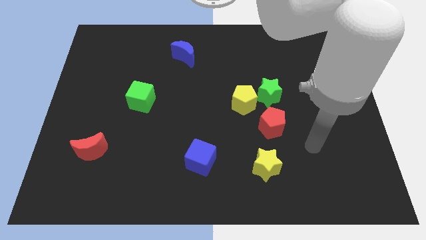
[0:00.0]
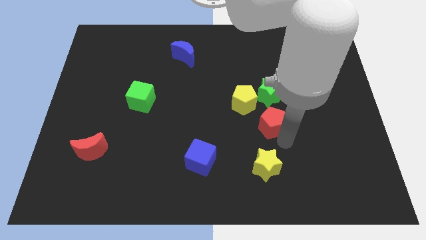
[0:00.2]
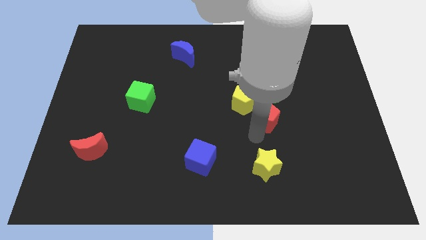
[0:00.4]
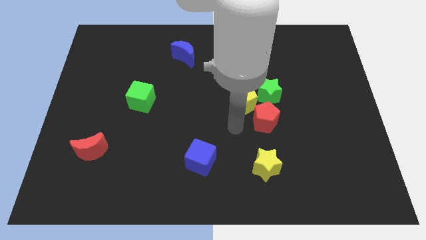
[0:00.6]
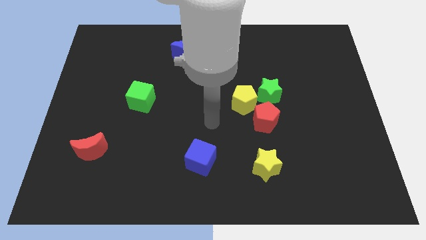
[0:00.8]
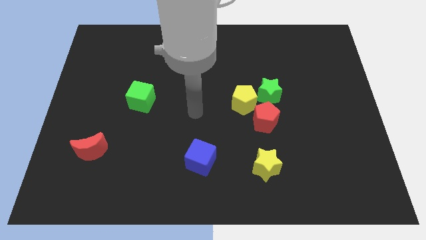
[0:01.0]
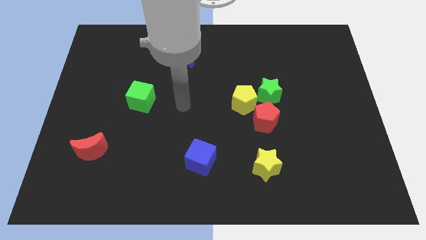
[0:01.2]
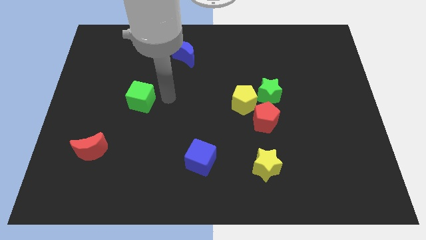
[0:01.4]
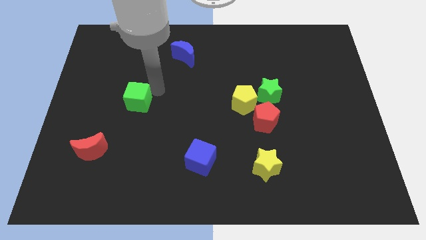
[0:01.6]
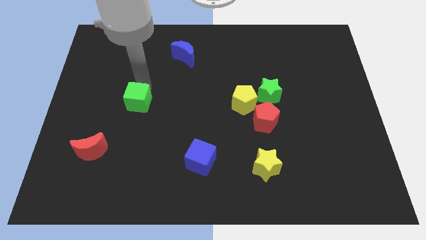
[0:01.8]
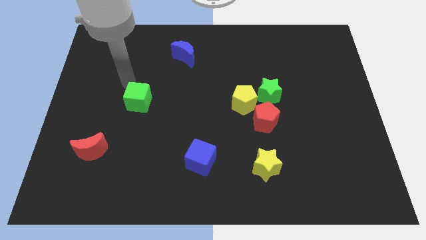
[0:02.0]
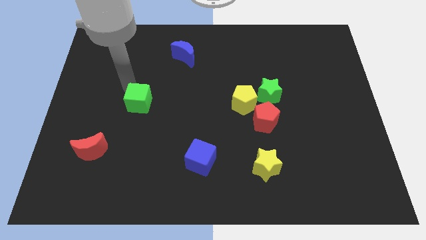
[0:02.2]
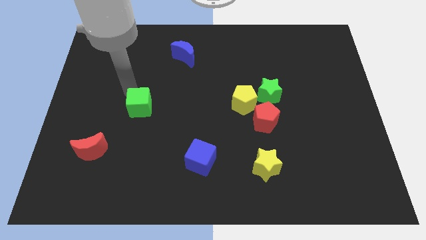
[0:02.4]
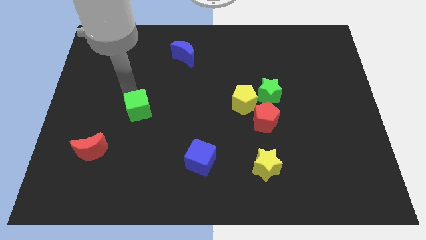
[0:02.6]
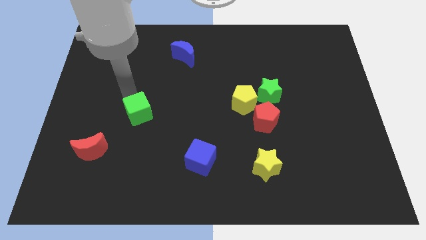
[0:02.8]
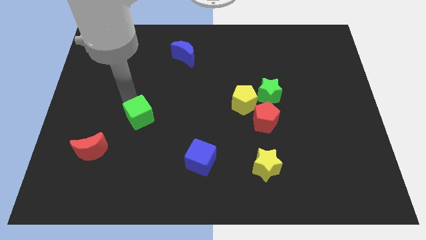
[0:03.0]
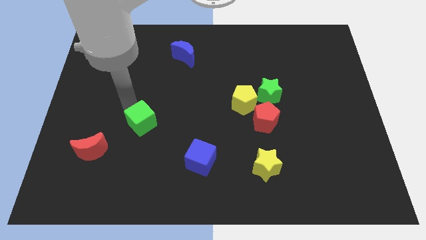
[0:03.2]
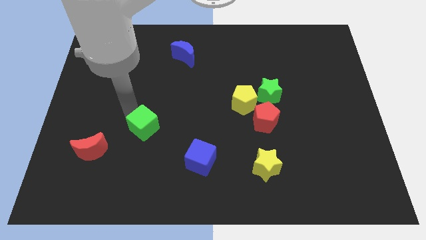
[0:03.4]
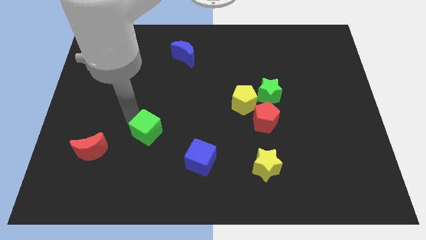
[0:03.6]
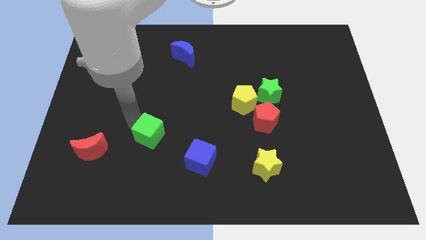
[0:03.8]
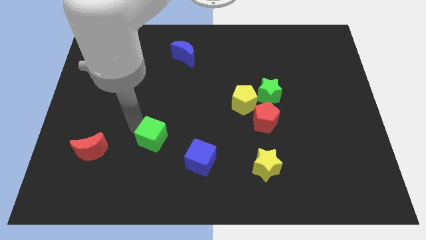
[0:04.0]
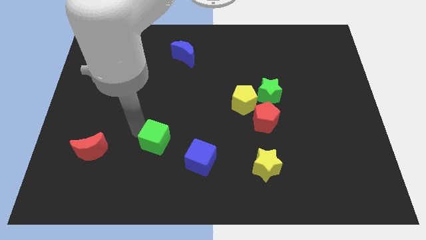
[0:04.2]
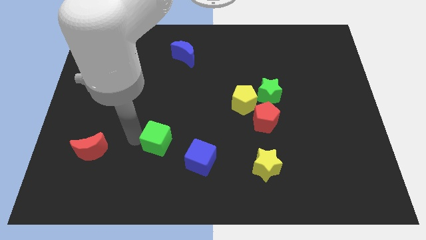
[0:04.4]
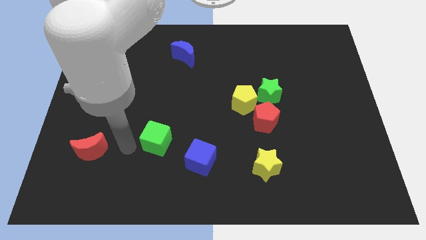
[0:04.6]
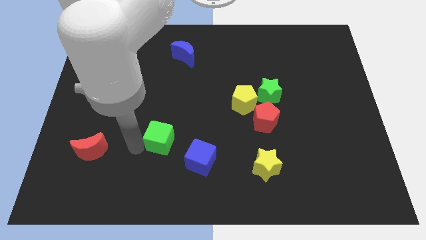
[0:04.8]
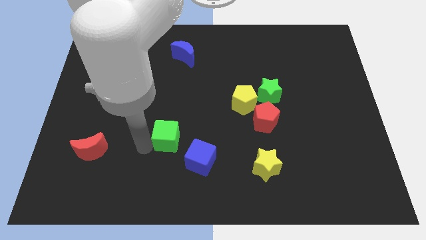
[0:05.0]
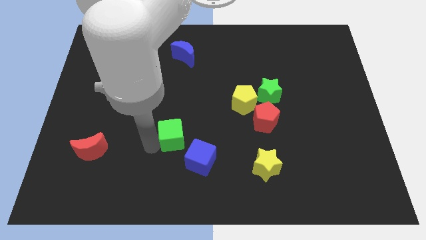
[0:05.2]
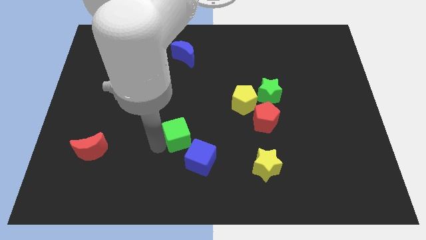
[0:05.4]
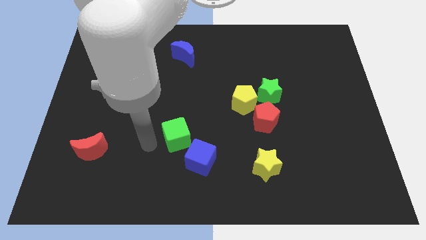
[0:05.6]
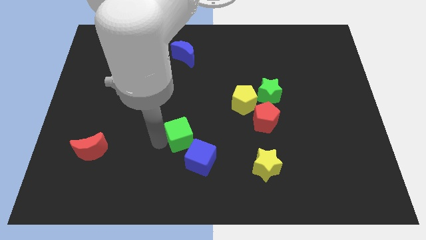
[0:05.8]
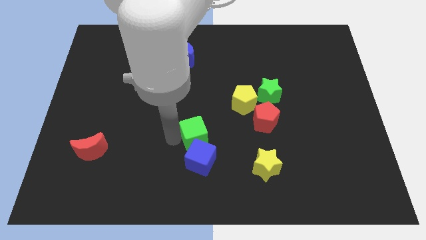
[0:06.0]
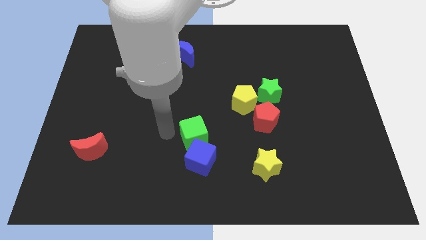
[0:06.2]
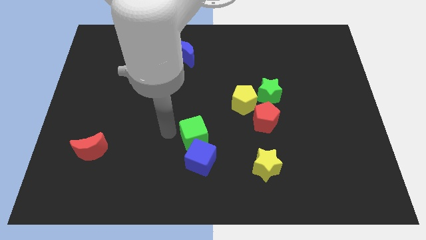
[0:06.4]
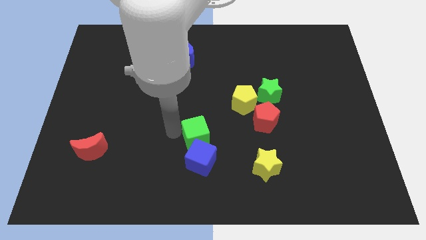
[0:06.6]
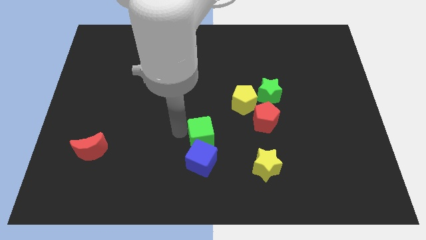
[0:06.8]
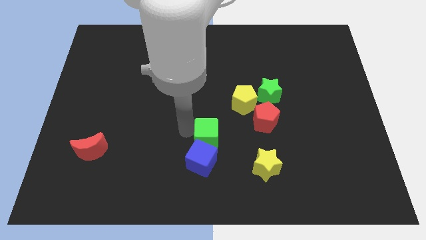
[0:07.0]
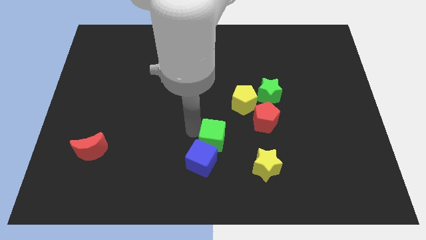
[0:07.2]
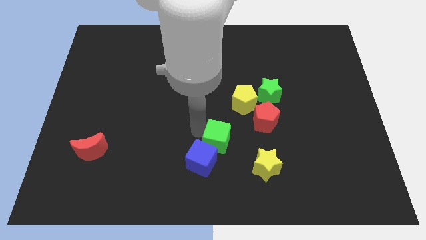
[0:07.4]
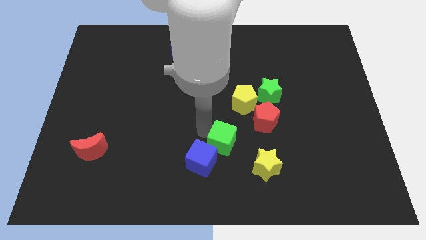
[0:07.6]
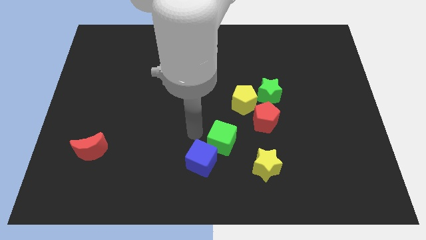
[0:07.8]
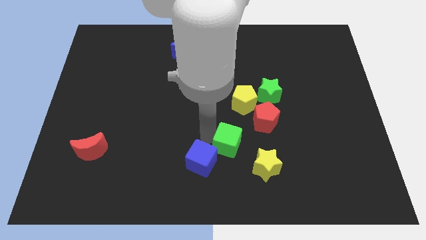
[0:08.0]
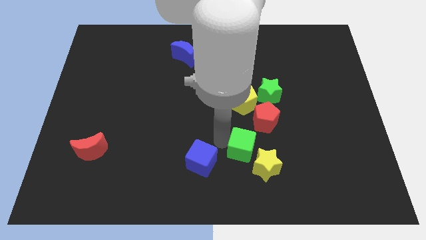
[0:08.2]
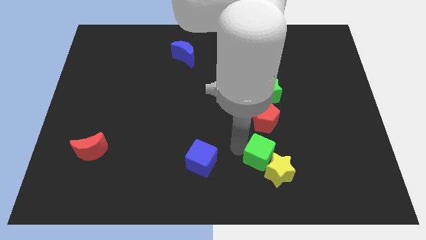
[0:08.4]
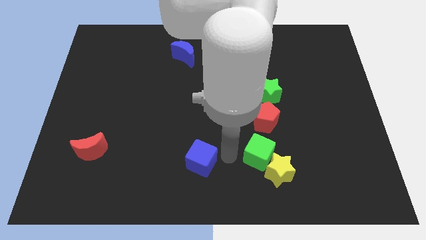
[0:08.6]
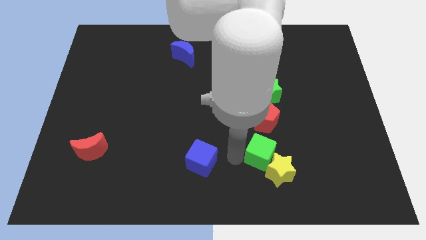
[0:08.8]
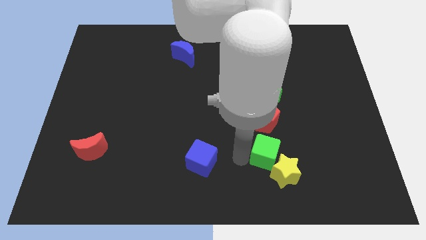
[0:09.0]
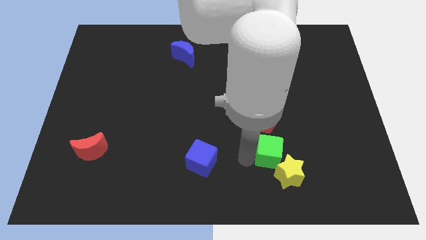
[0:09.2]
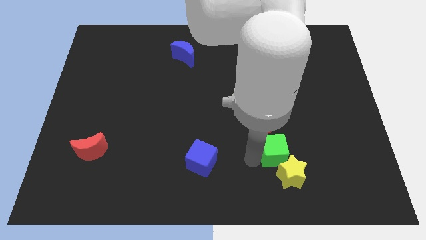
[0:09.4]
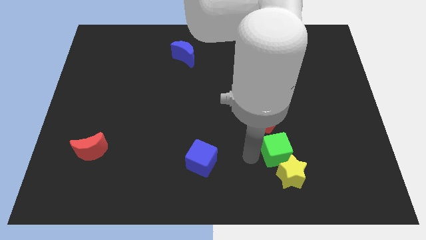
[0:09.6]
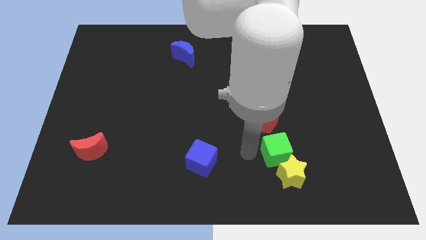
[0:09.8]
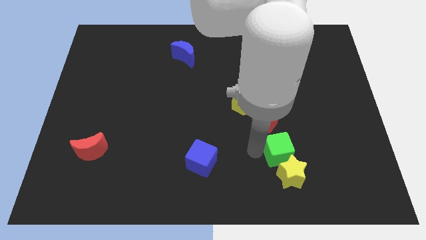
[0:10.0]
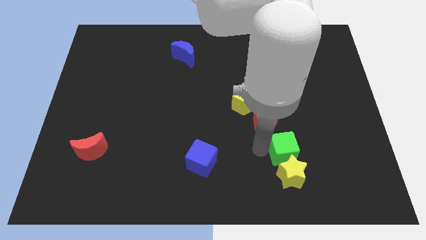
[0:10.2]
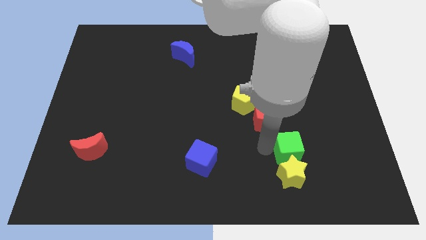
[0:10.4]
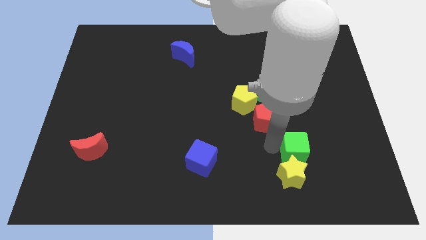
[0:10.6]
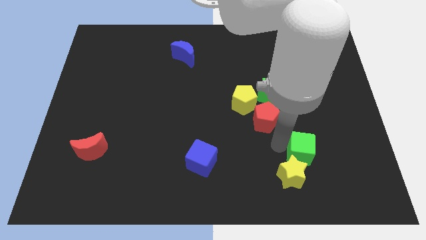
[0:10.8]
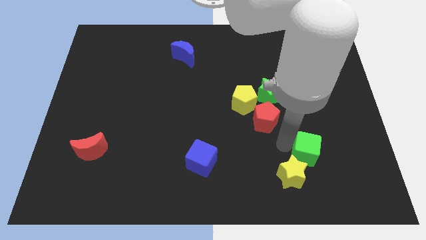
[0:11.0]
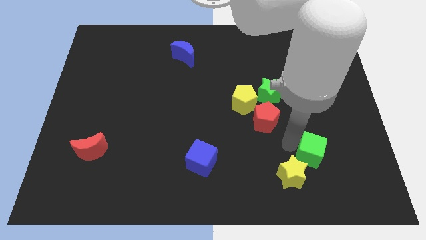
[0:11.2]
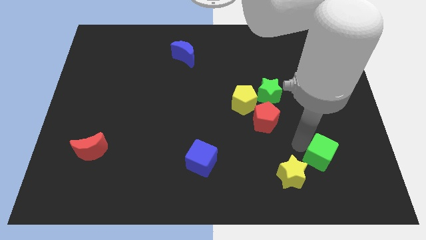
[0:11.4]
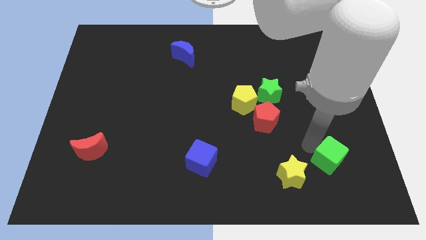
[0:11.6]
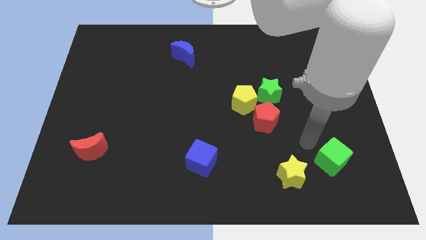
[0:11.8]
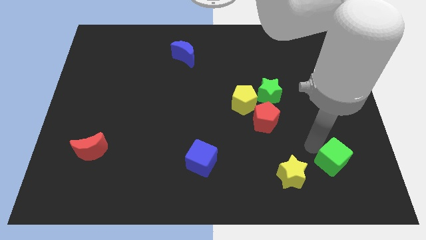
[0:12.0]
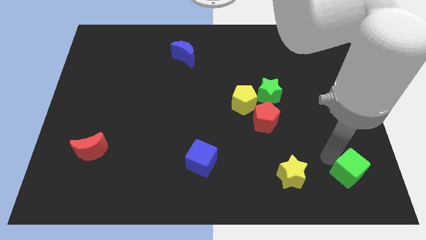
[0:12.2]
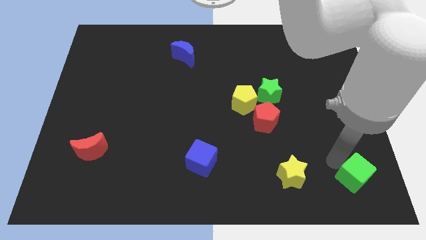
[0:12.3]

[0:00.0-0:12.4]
slide the green cube to the bottom right
